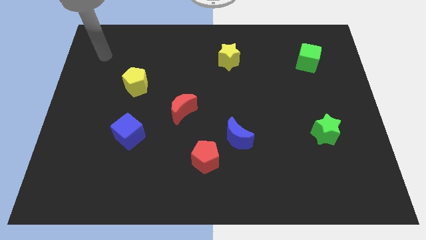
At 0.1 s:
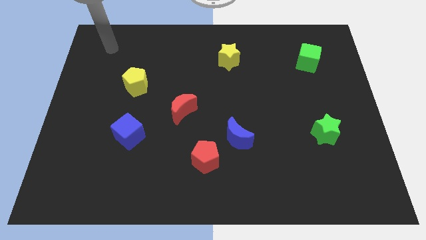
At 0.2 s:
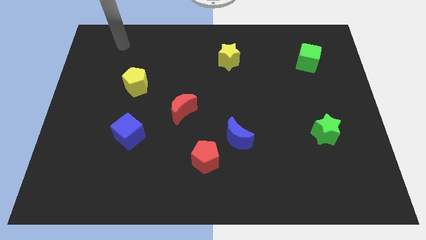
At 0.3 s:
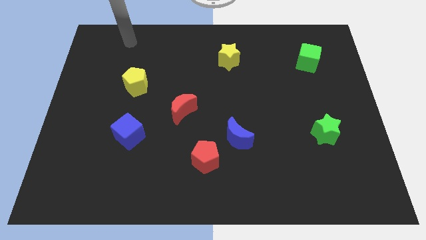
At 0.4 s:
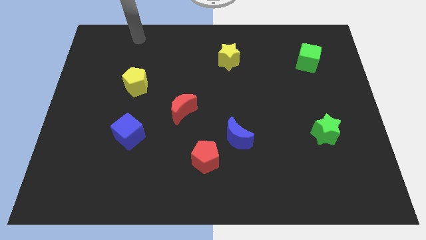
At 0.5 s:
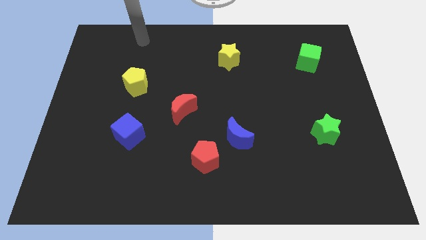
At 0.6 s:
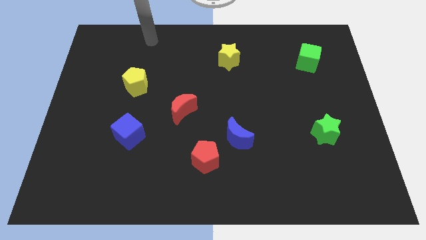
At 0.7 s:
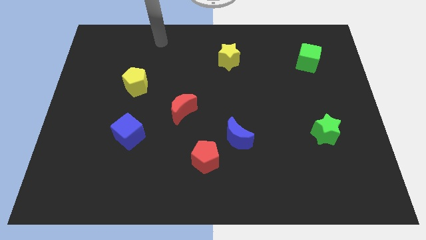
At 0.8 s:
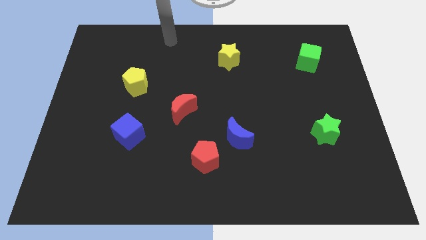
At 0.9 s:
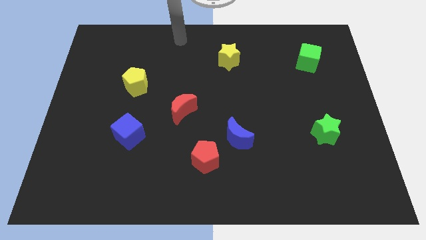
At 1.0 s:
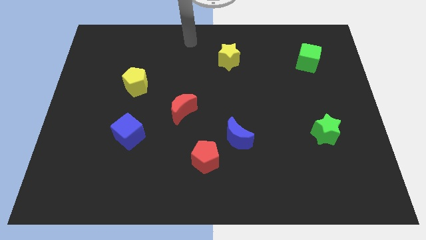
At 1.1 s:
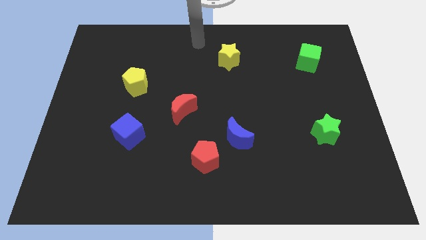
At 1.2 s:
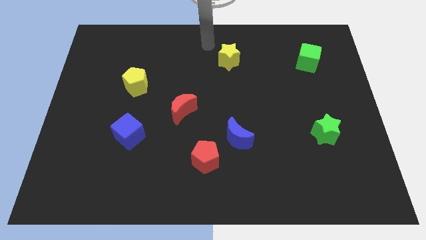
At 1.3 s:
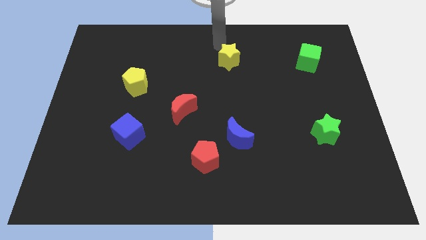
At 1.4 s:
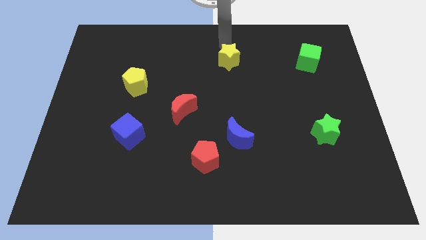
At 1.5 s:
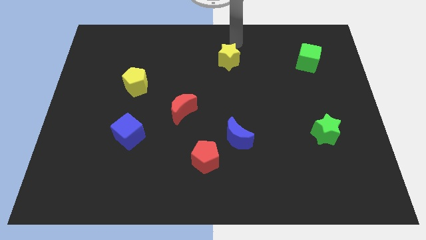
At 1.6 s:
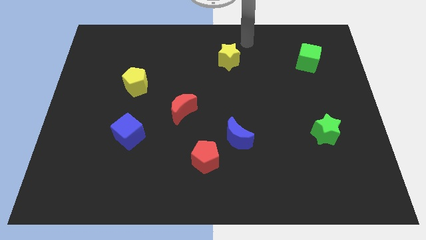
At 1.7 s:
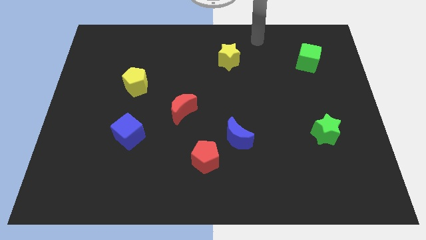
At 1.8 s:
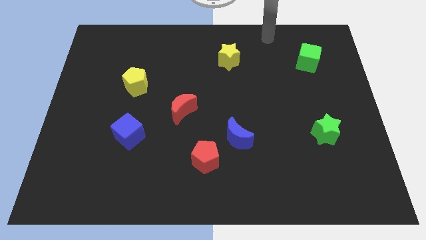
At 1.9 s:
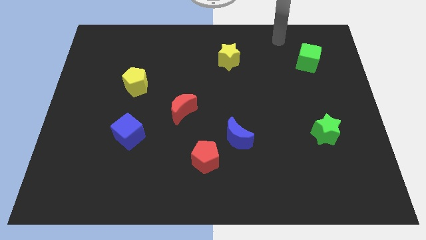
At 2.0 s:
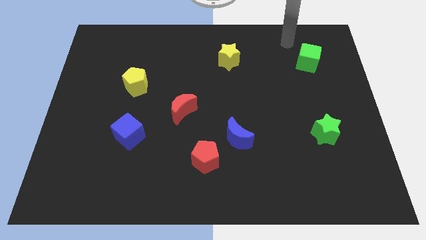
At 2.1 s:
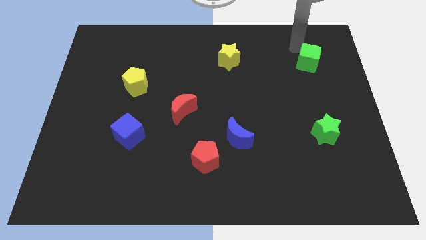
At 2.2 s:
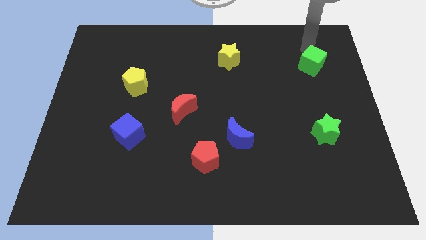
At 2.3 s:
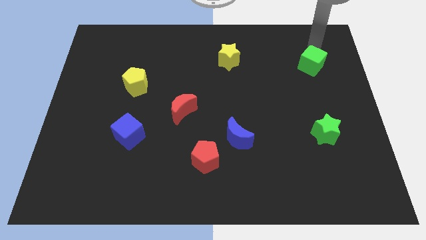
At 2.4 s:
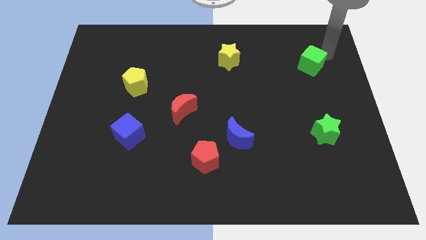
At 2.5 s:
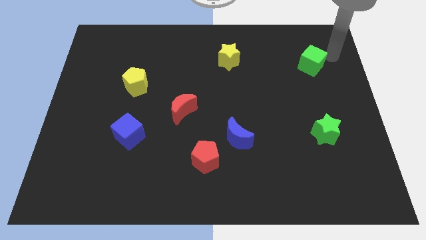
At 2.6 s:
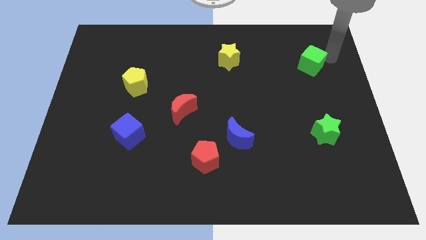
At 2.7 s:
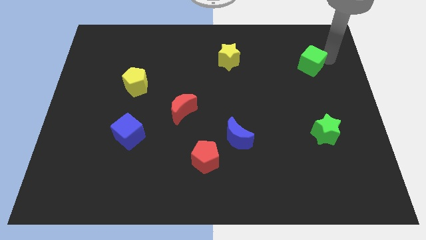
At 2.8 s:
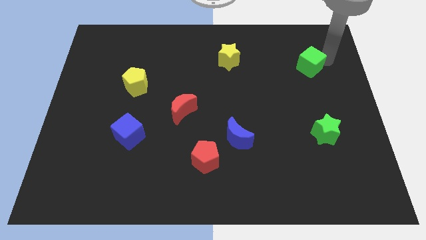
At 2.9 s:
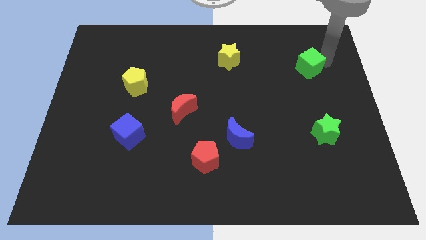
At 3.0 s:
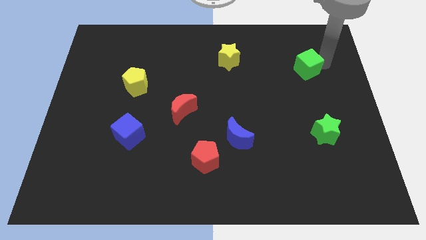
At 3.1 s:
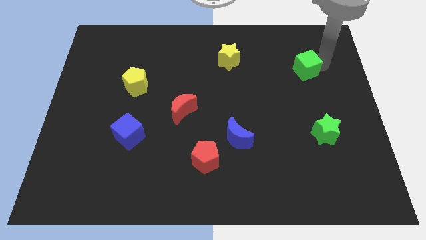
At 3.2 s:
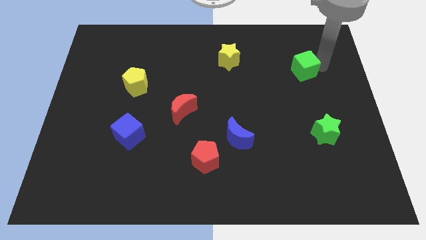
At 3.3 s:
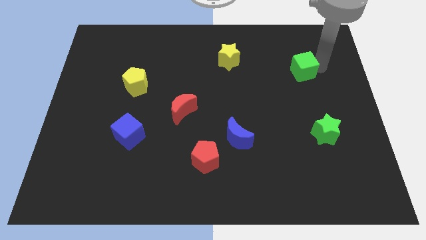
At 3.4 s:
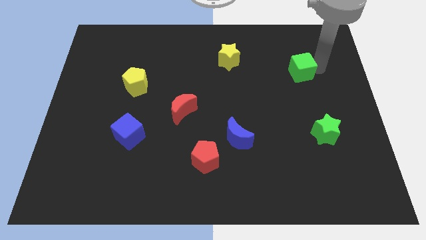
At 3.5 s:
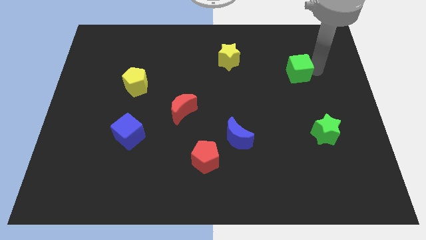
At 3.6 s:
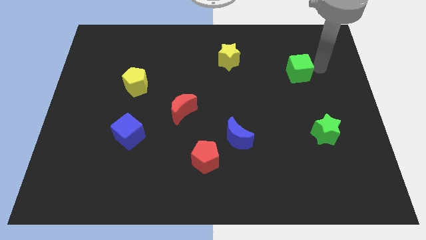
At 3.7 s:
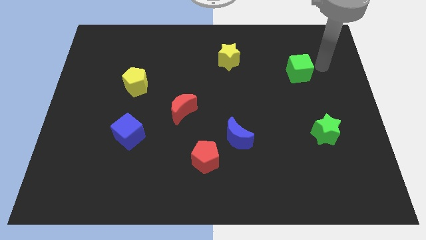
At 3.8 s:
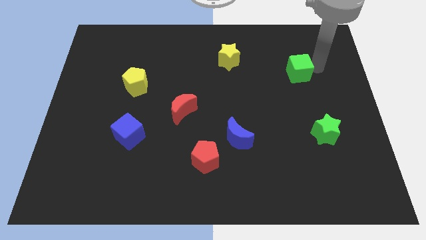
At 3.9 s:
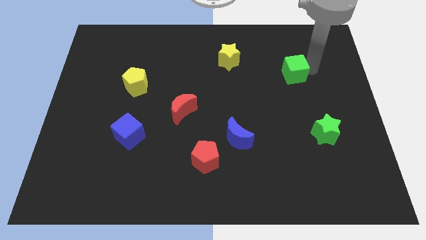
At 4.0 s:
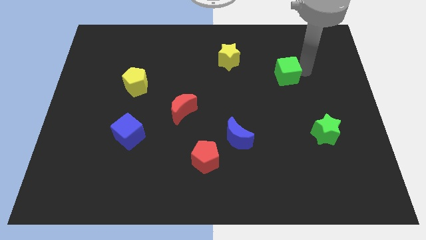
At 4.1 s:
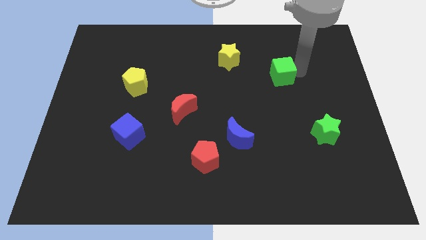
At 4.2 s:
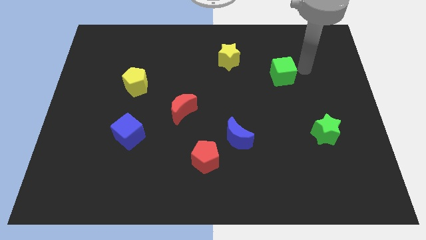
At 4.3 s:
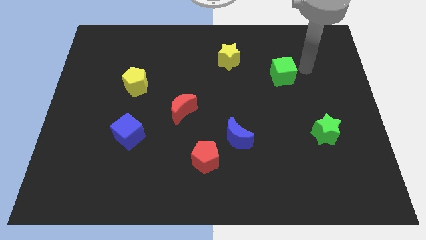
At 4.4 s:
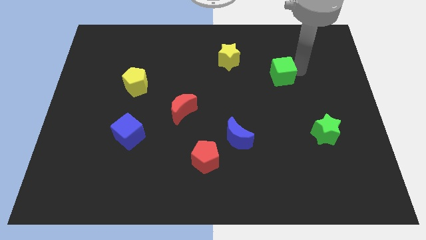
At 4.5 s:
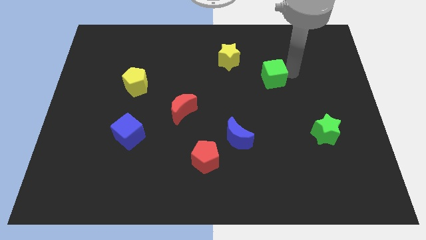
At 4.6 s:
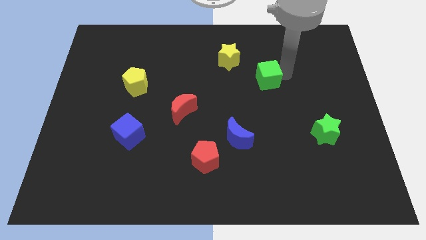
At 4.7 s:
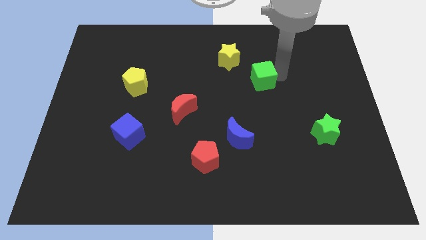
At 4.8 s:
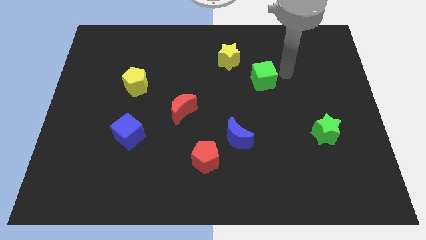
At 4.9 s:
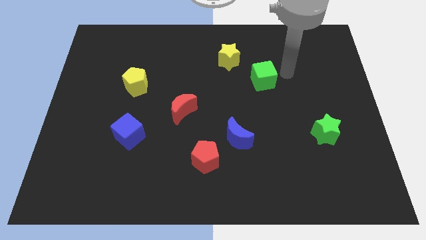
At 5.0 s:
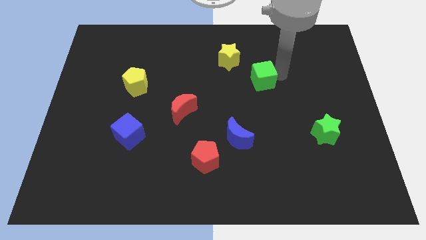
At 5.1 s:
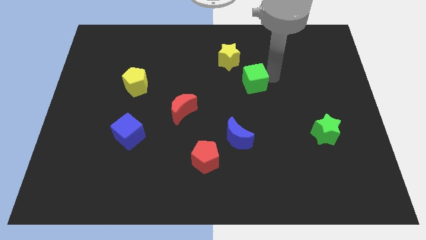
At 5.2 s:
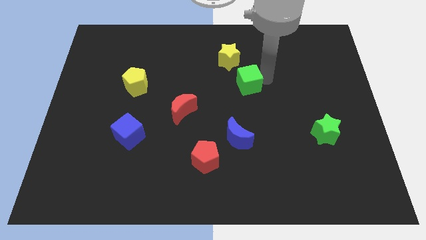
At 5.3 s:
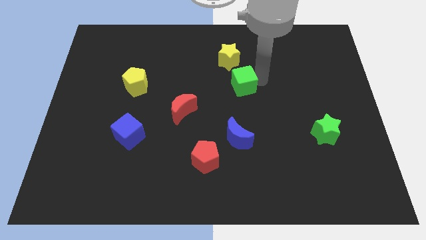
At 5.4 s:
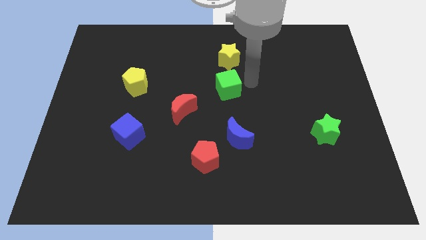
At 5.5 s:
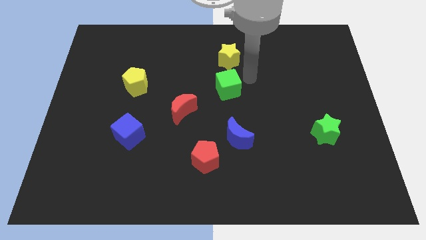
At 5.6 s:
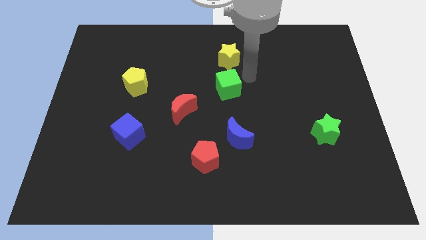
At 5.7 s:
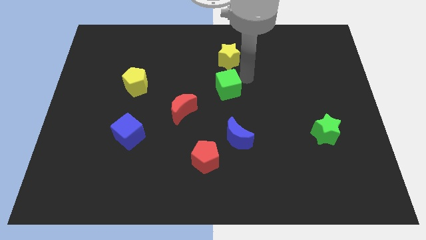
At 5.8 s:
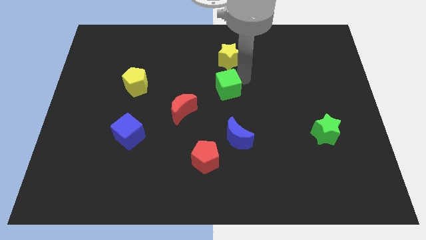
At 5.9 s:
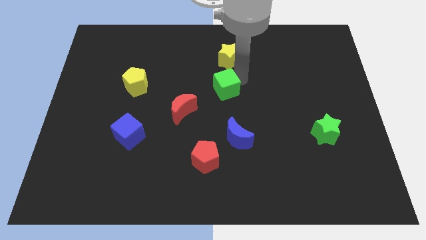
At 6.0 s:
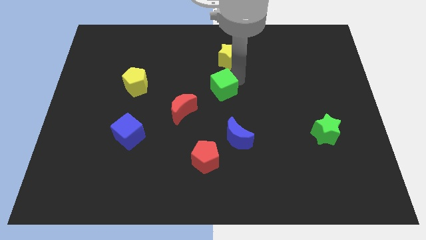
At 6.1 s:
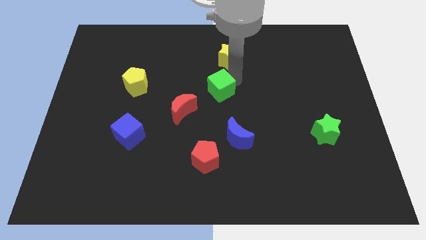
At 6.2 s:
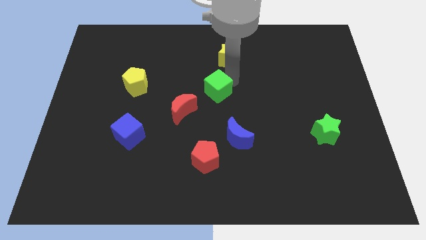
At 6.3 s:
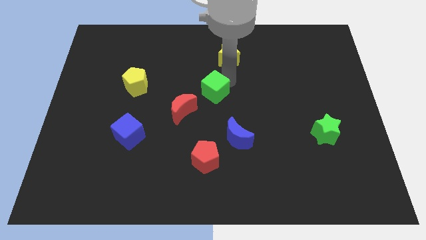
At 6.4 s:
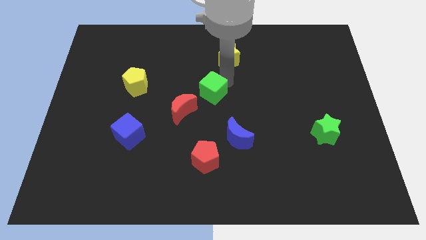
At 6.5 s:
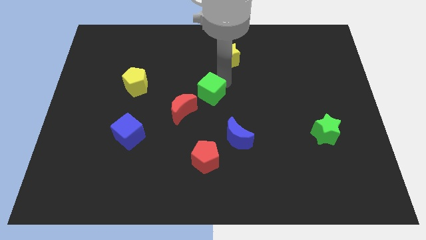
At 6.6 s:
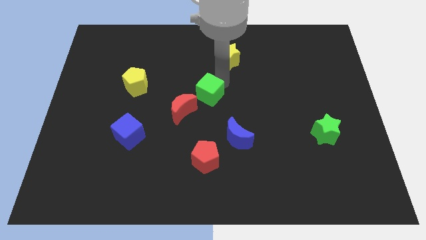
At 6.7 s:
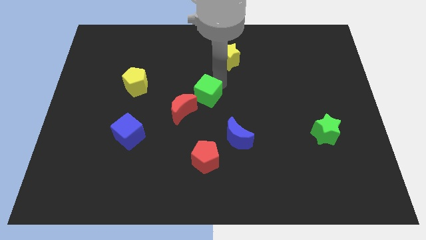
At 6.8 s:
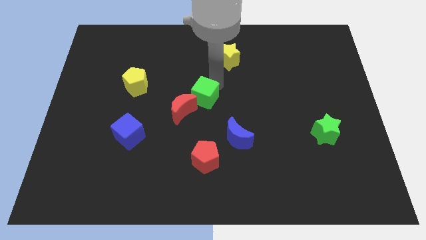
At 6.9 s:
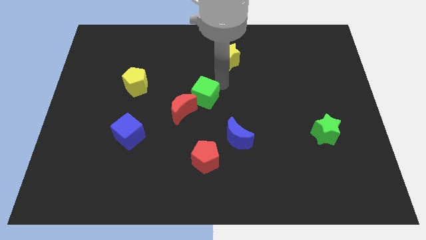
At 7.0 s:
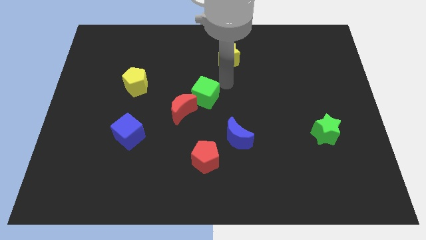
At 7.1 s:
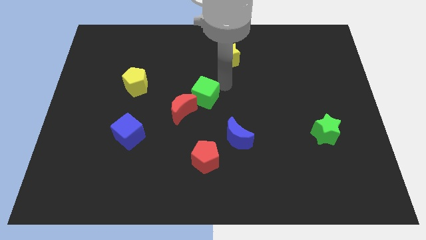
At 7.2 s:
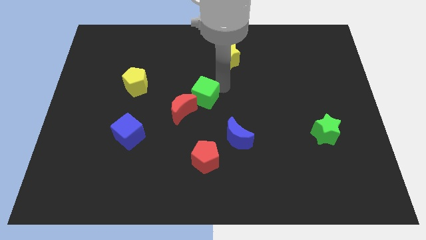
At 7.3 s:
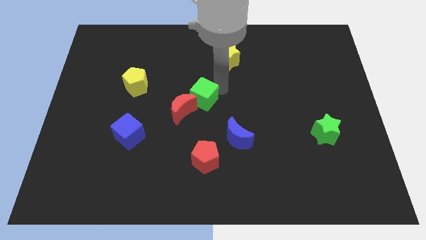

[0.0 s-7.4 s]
slide the green cube towards the red moon
